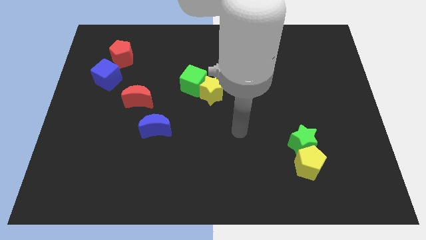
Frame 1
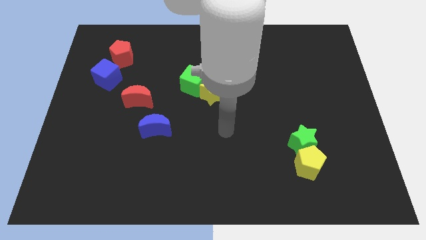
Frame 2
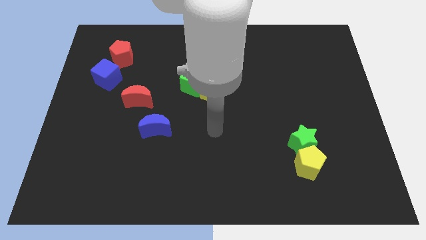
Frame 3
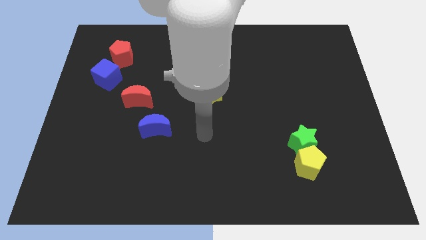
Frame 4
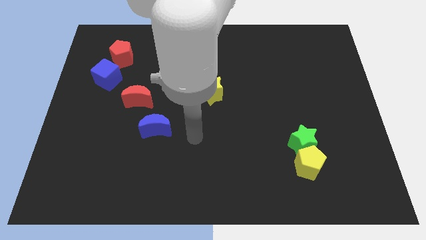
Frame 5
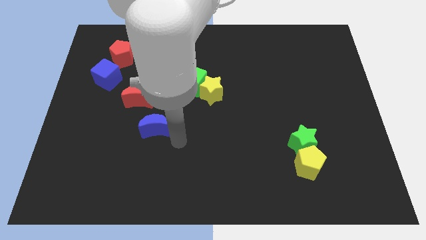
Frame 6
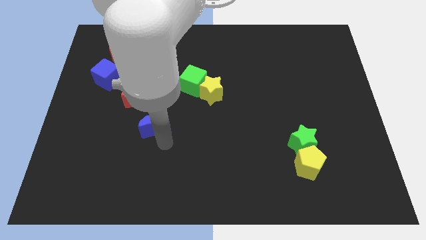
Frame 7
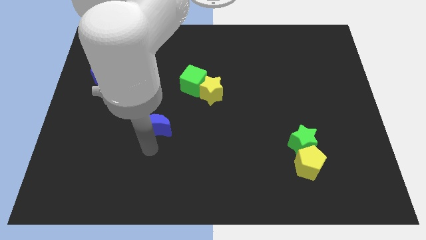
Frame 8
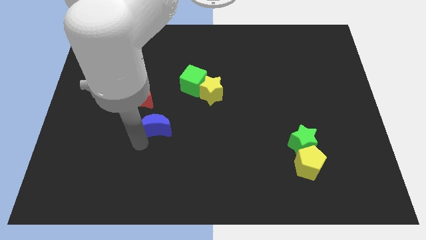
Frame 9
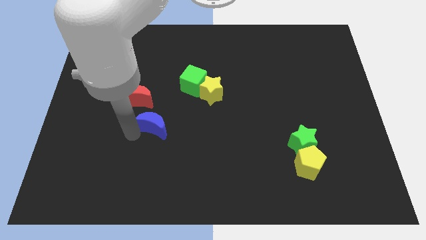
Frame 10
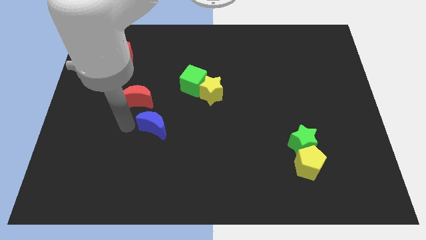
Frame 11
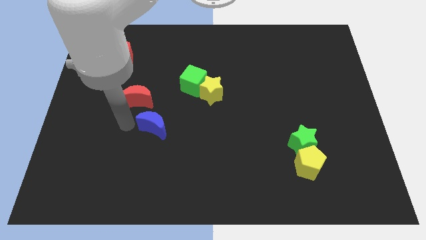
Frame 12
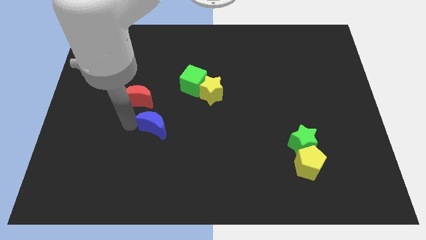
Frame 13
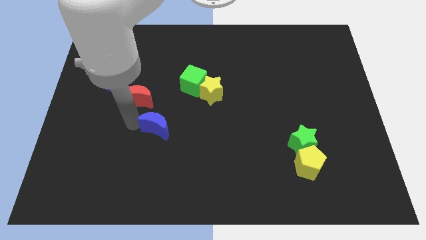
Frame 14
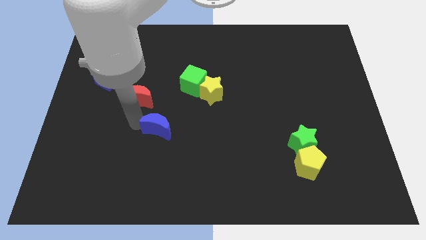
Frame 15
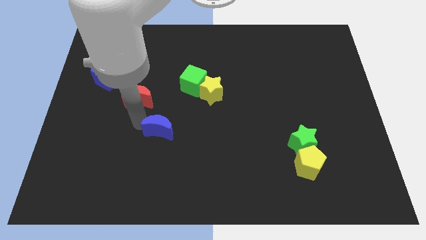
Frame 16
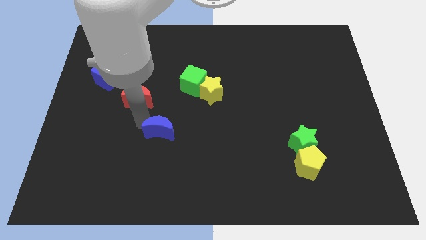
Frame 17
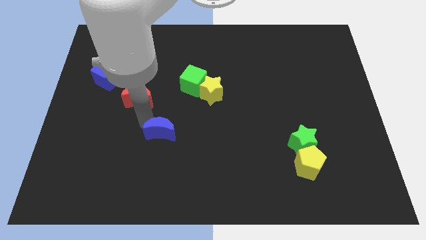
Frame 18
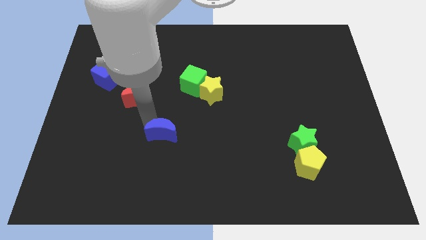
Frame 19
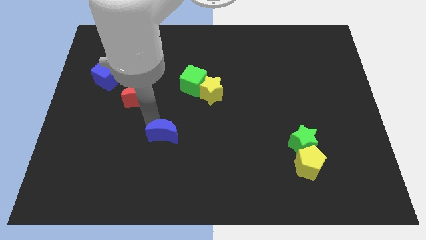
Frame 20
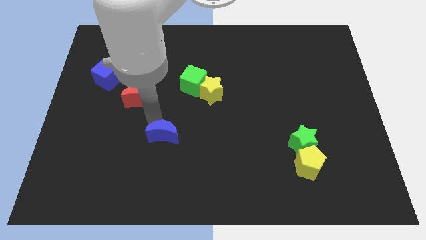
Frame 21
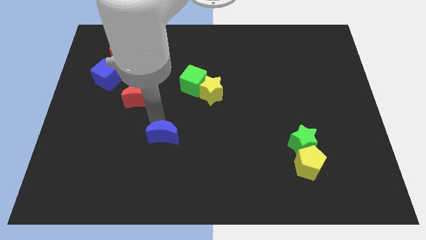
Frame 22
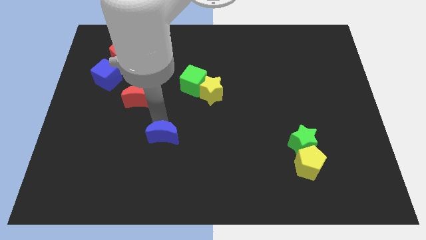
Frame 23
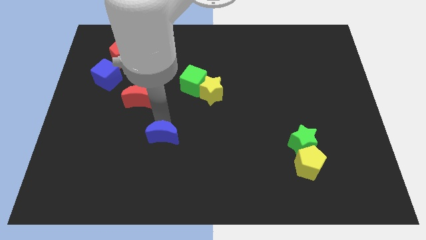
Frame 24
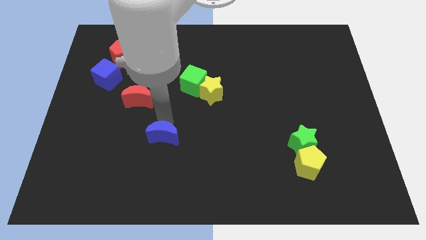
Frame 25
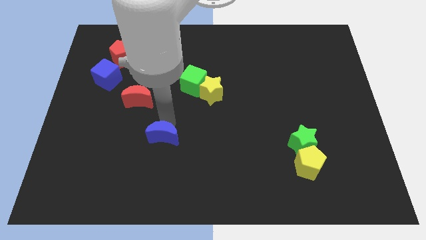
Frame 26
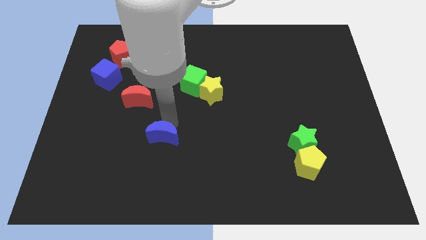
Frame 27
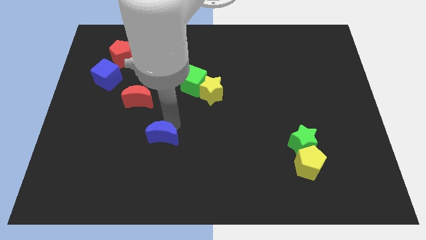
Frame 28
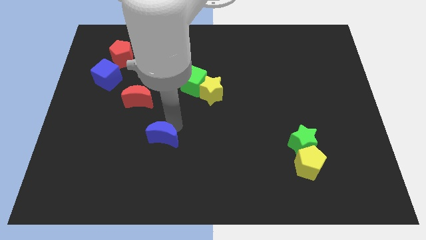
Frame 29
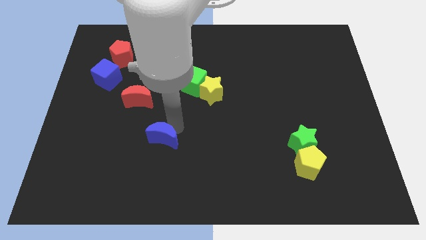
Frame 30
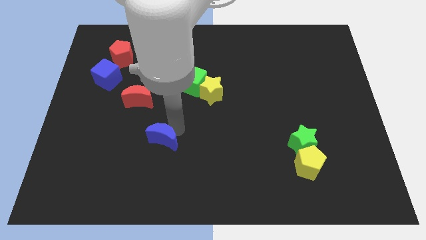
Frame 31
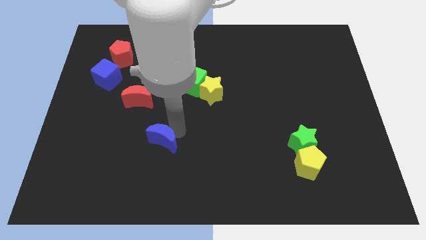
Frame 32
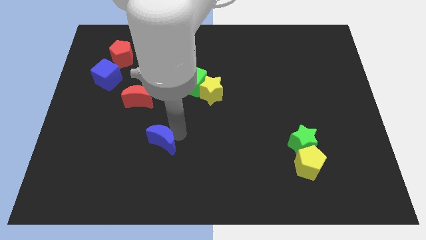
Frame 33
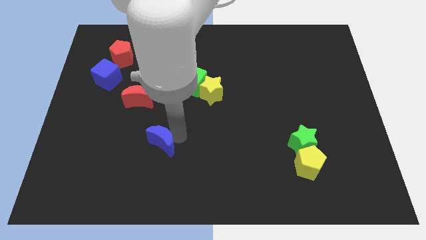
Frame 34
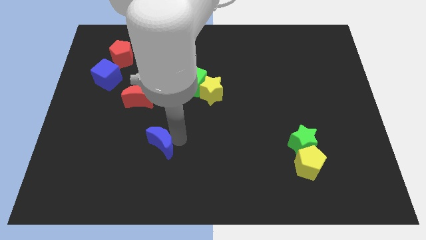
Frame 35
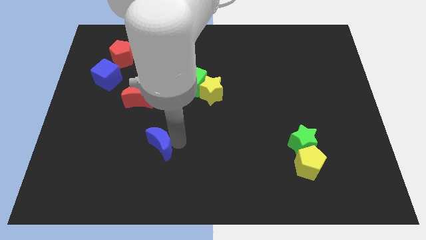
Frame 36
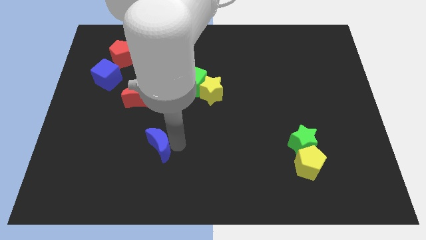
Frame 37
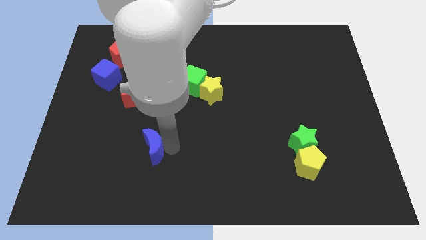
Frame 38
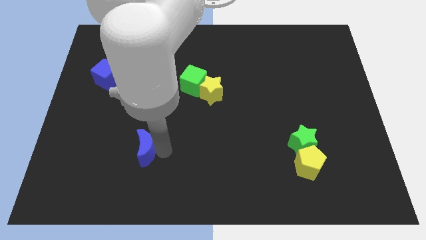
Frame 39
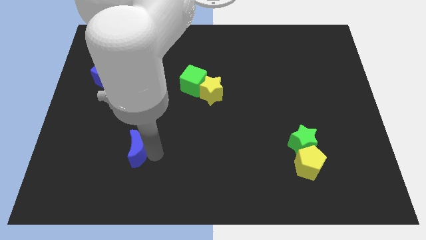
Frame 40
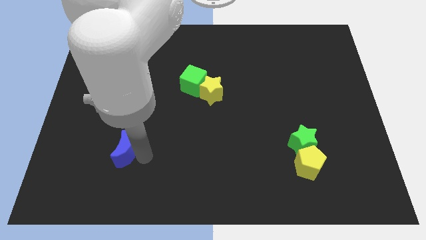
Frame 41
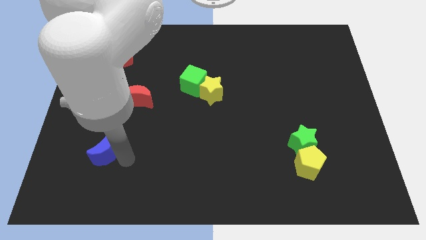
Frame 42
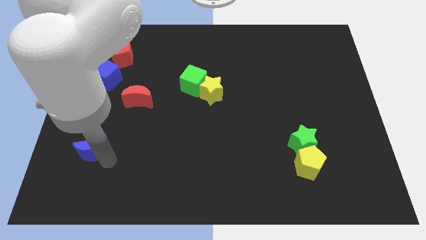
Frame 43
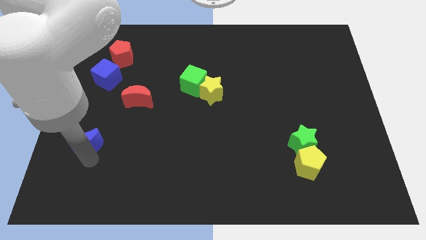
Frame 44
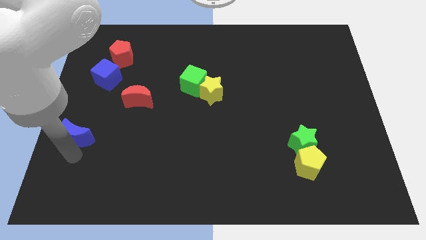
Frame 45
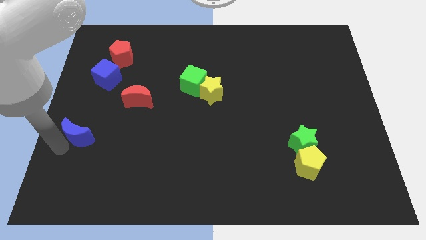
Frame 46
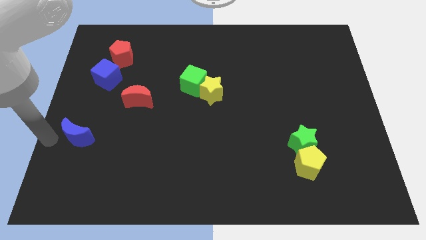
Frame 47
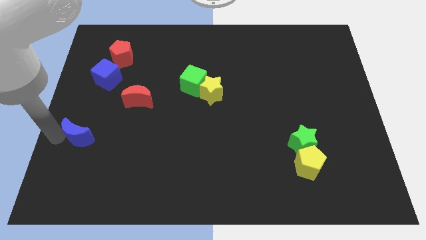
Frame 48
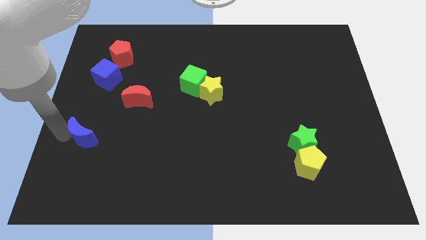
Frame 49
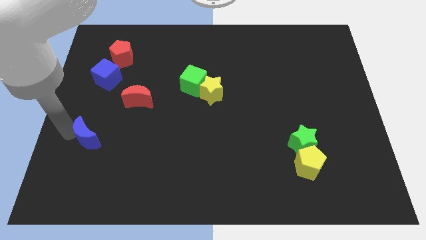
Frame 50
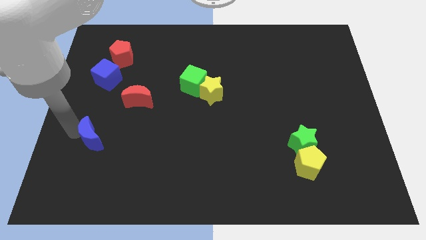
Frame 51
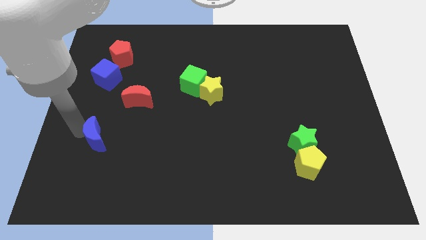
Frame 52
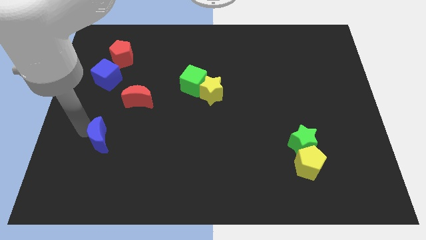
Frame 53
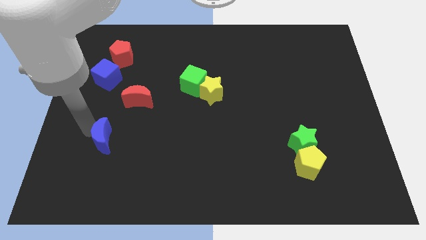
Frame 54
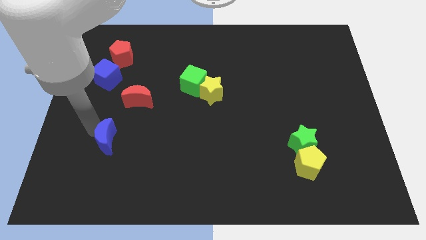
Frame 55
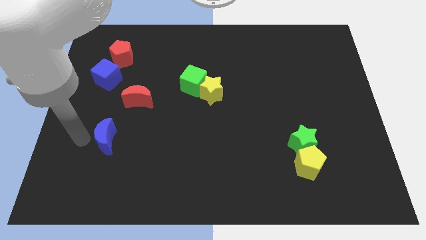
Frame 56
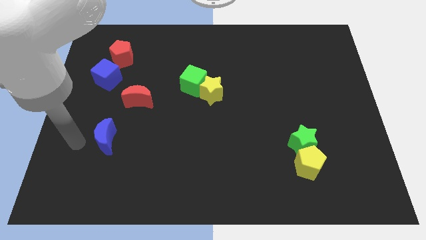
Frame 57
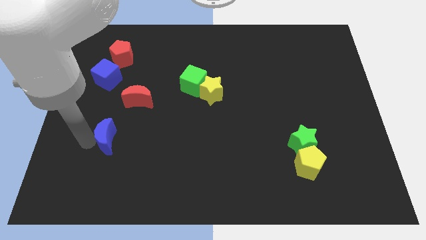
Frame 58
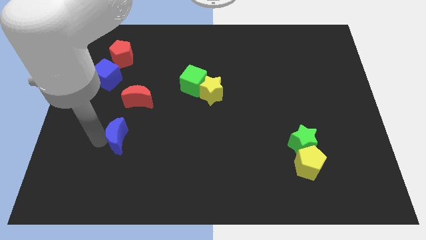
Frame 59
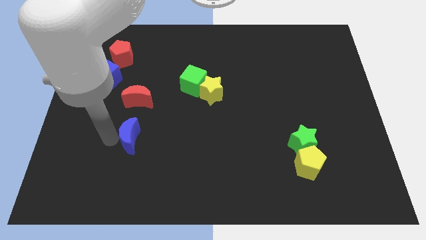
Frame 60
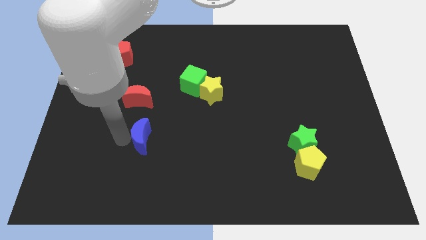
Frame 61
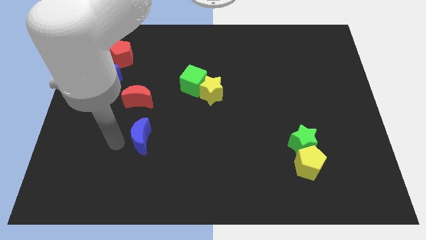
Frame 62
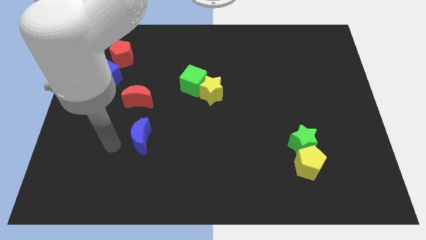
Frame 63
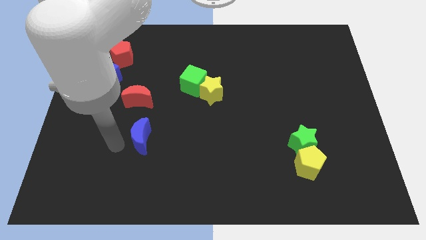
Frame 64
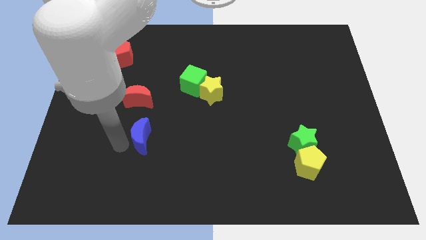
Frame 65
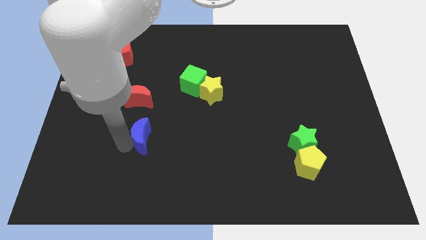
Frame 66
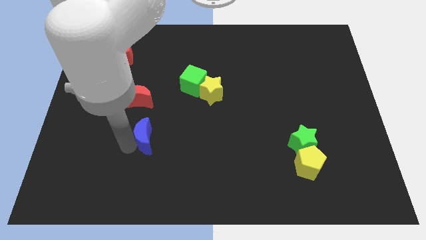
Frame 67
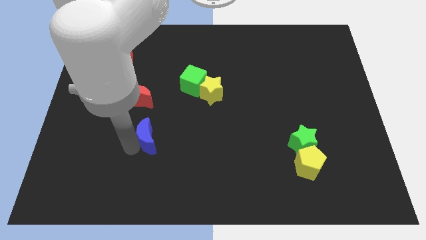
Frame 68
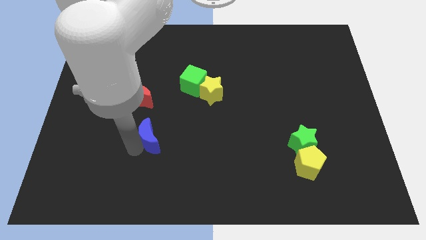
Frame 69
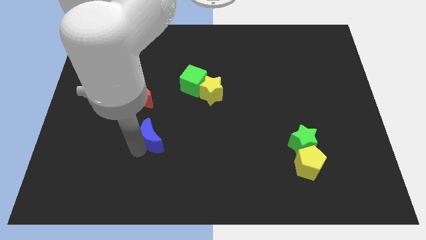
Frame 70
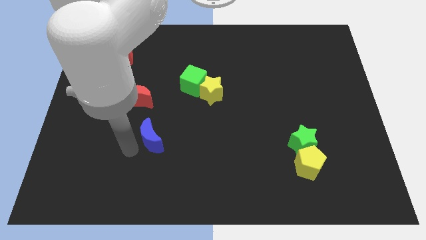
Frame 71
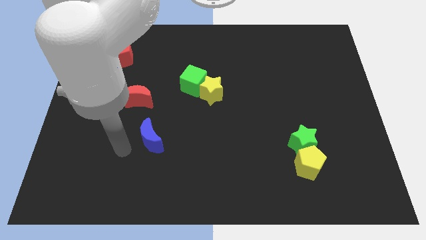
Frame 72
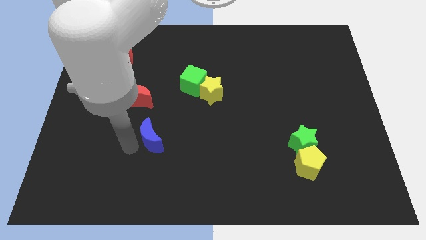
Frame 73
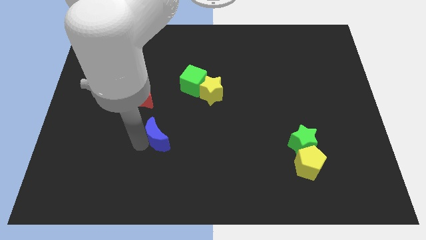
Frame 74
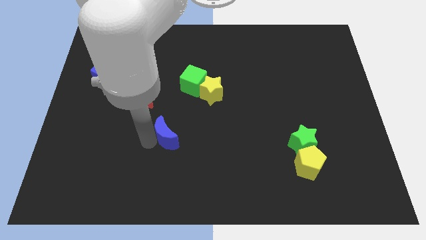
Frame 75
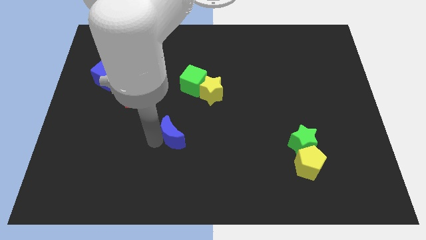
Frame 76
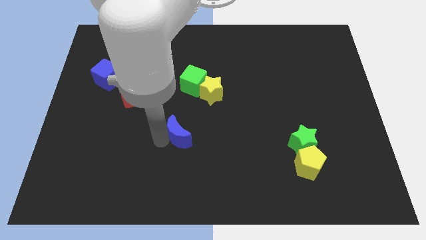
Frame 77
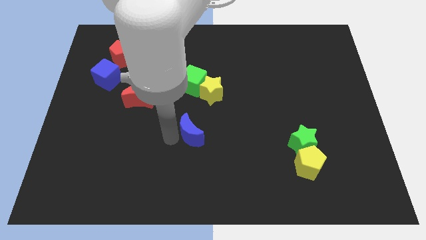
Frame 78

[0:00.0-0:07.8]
slightly push the blue moon to the right
